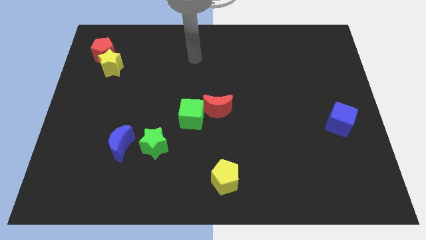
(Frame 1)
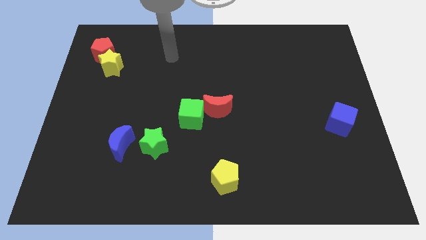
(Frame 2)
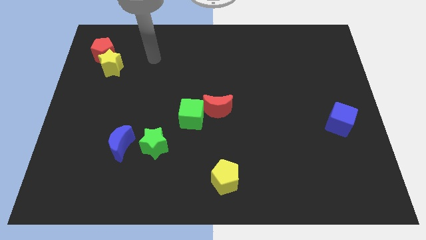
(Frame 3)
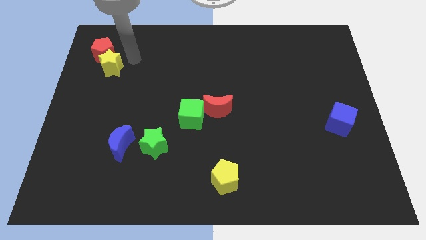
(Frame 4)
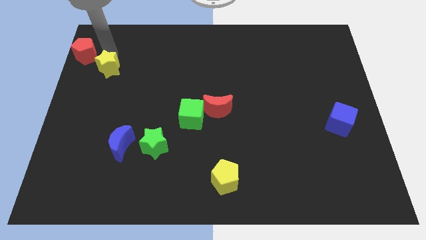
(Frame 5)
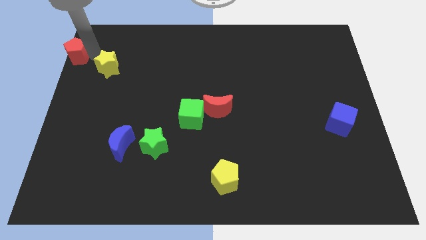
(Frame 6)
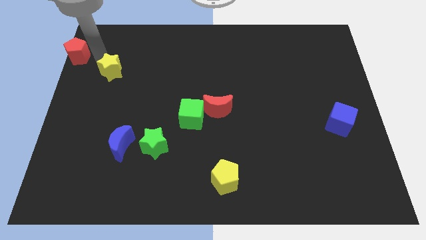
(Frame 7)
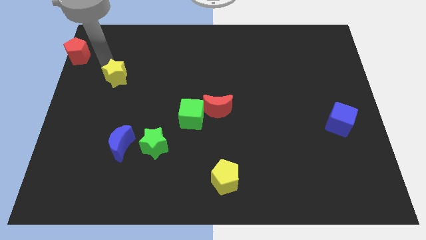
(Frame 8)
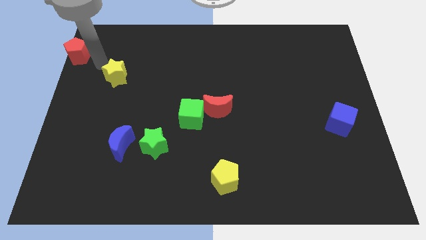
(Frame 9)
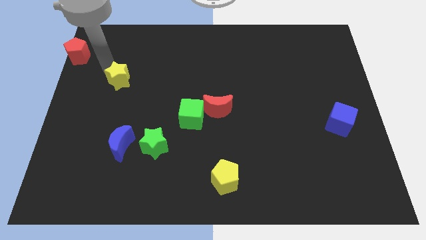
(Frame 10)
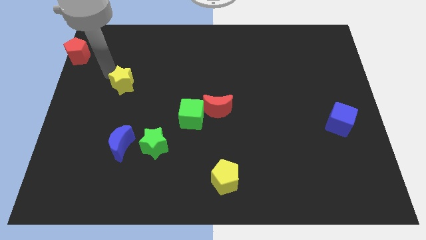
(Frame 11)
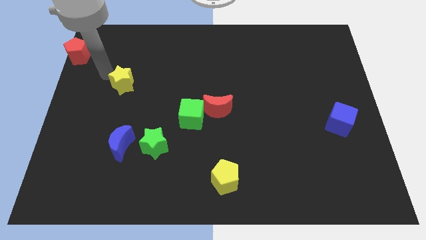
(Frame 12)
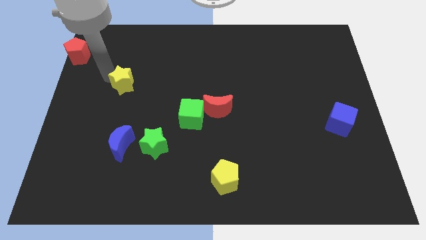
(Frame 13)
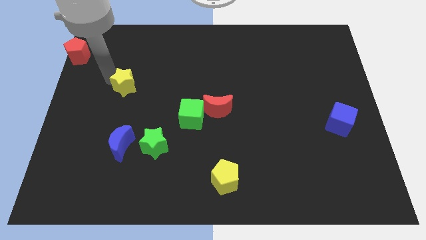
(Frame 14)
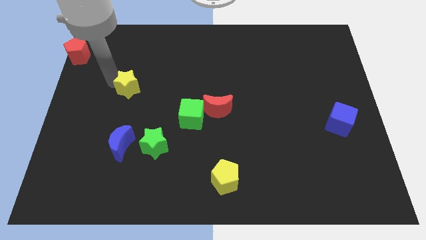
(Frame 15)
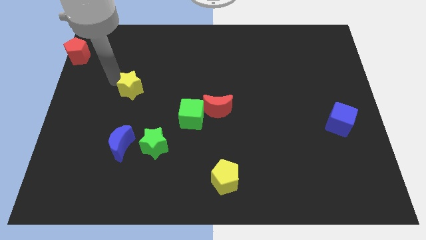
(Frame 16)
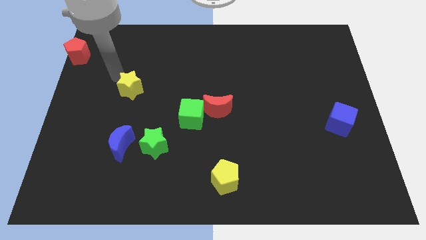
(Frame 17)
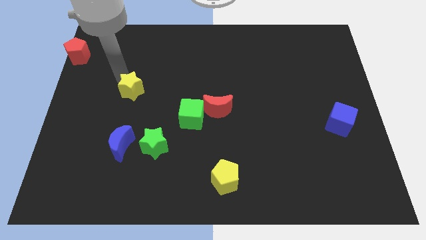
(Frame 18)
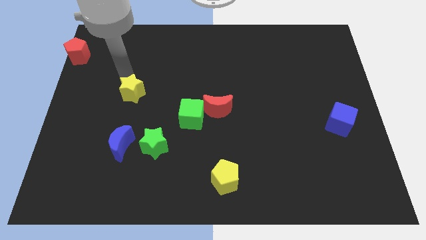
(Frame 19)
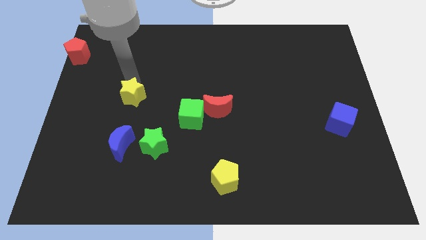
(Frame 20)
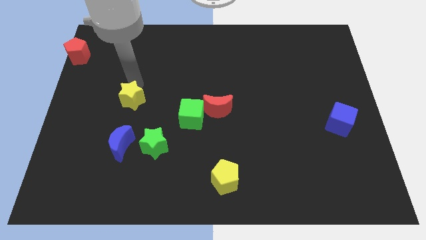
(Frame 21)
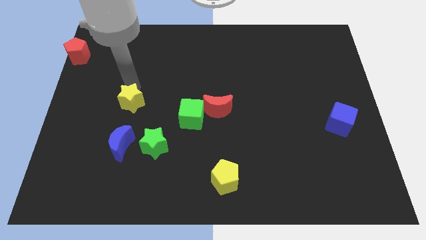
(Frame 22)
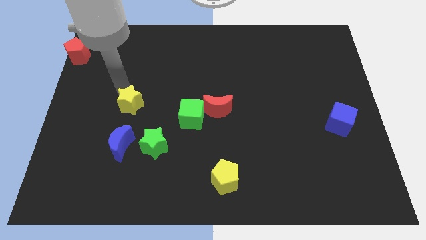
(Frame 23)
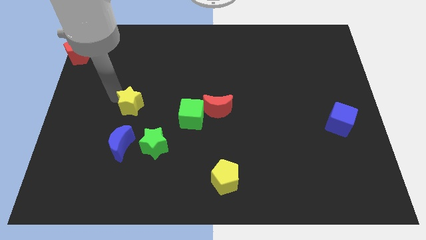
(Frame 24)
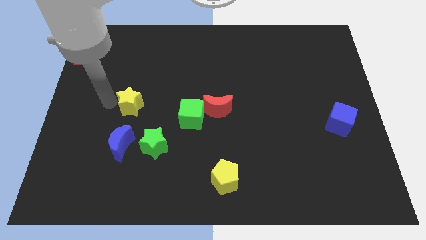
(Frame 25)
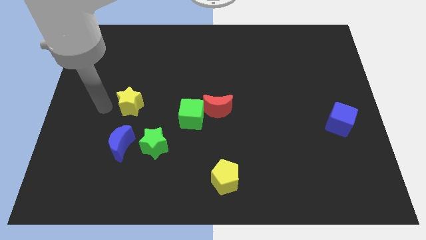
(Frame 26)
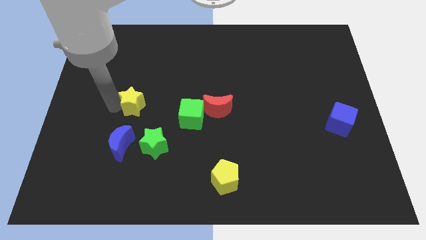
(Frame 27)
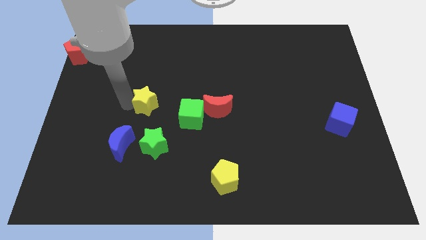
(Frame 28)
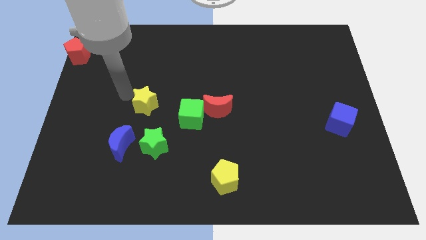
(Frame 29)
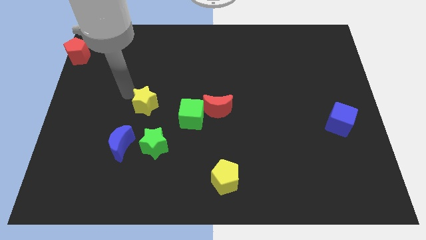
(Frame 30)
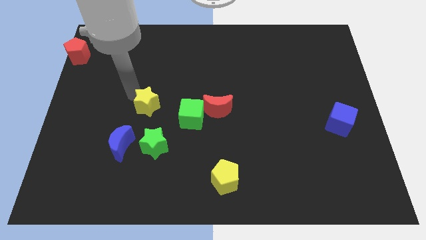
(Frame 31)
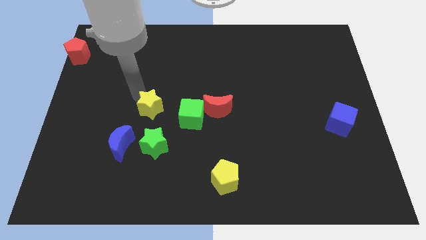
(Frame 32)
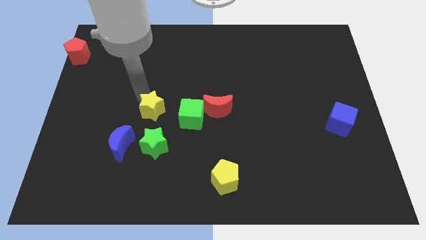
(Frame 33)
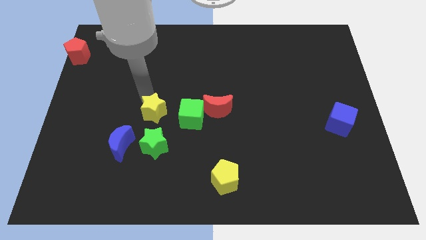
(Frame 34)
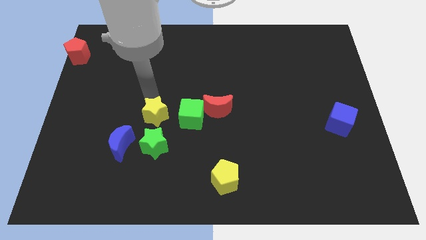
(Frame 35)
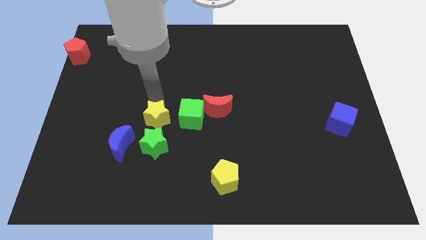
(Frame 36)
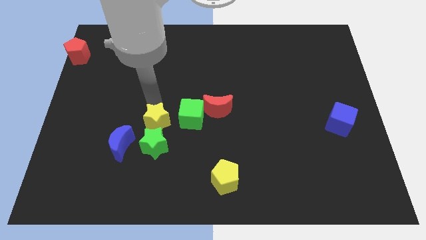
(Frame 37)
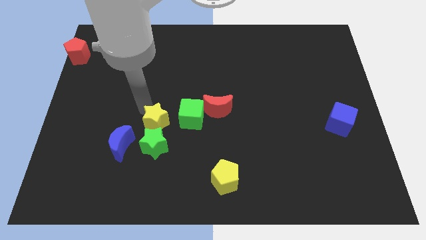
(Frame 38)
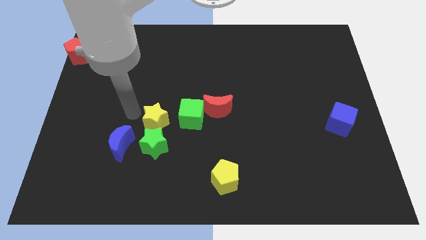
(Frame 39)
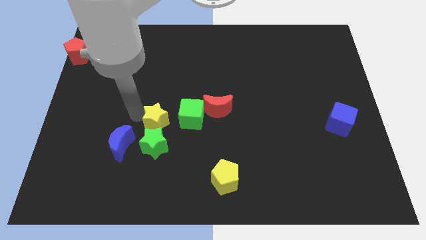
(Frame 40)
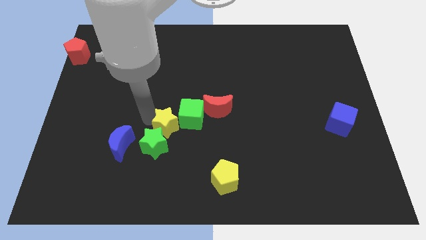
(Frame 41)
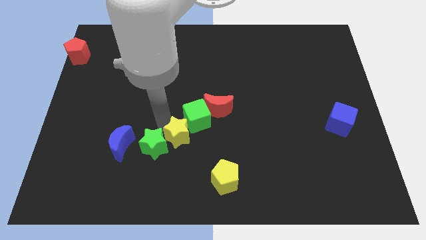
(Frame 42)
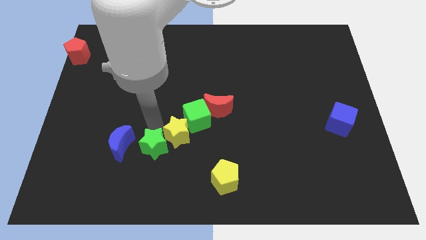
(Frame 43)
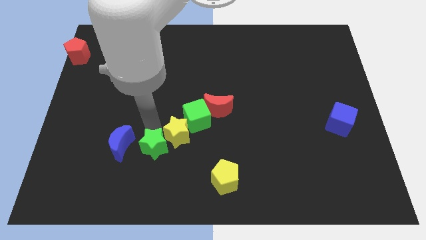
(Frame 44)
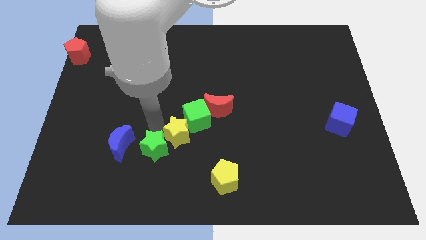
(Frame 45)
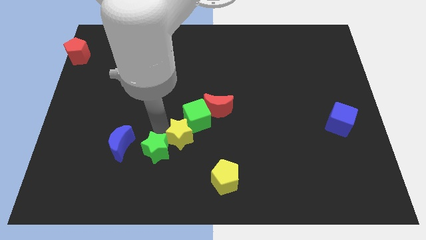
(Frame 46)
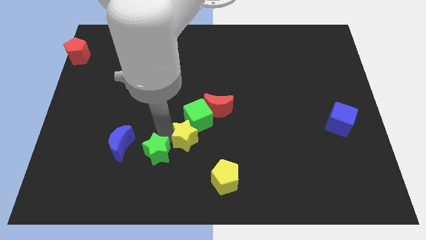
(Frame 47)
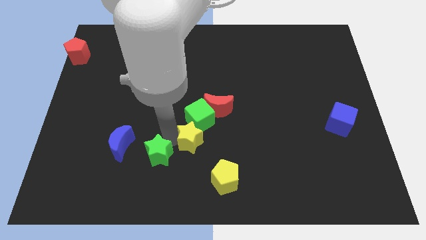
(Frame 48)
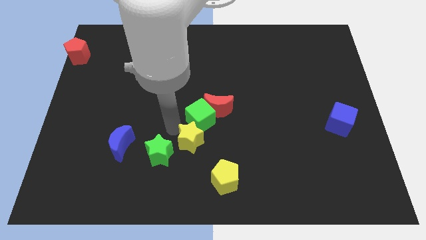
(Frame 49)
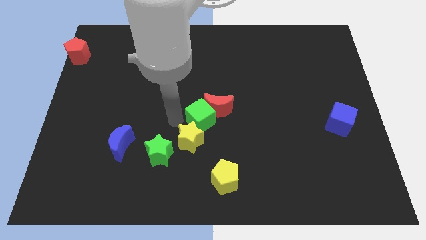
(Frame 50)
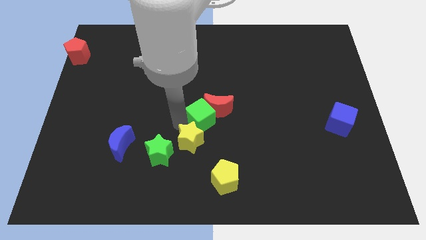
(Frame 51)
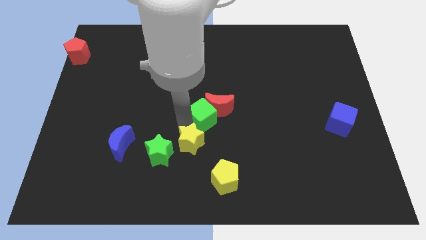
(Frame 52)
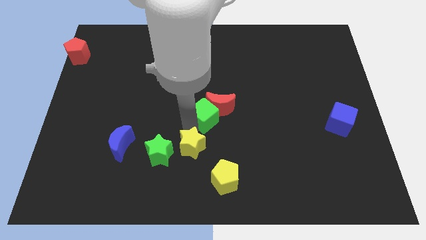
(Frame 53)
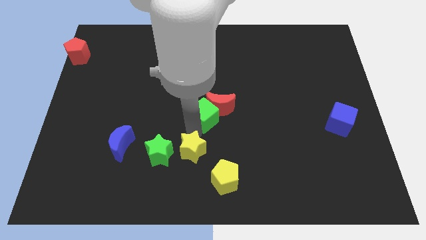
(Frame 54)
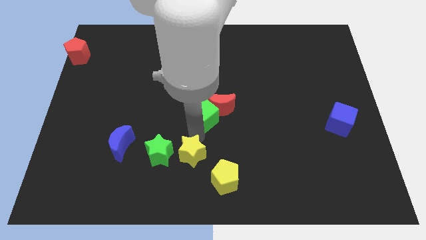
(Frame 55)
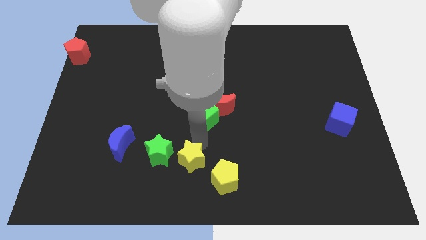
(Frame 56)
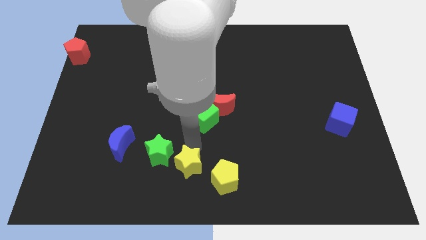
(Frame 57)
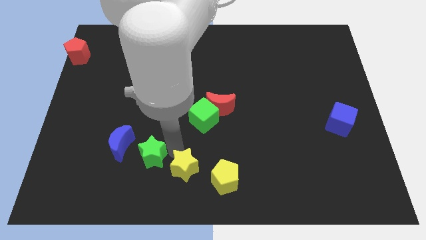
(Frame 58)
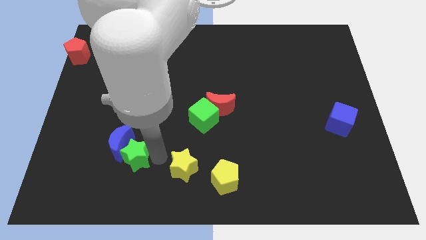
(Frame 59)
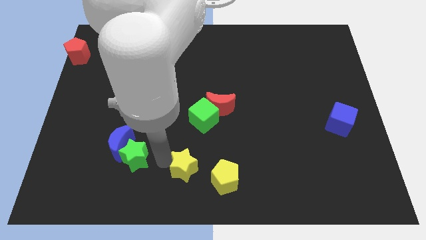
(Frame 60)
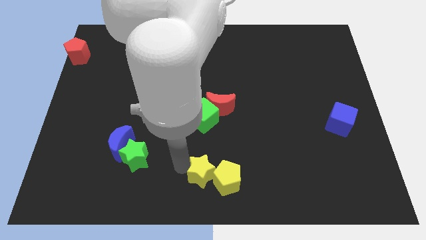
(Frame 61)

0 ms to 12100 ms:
put the yellow star towards the yellow pentagon
